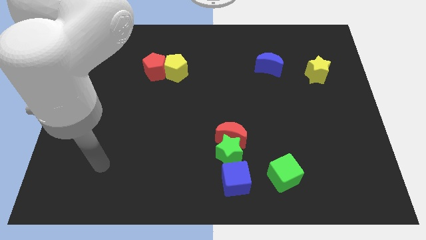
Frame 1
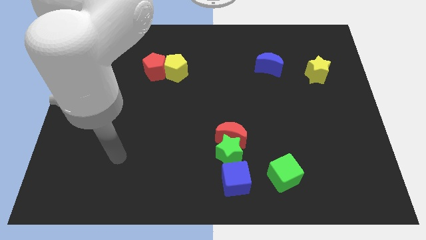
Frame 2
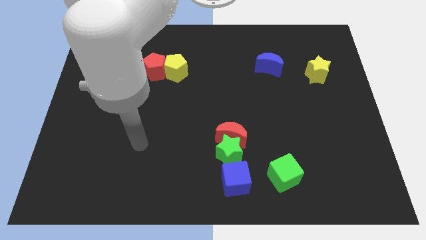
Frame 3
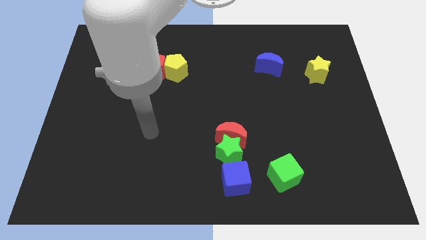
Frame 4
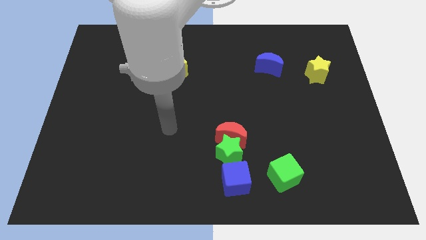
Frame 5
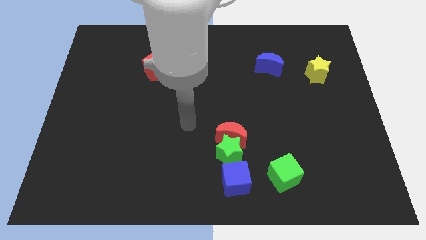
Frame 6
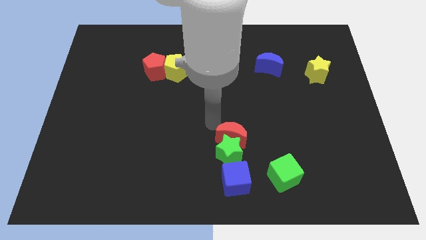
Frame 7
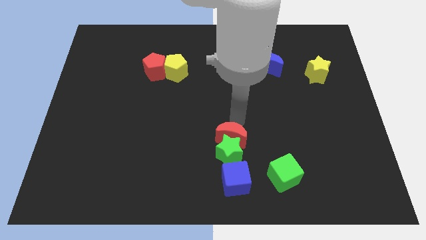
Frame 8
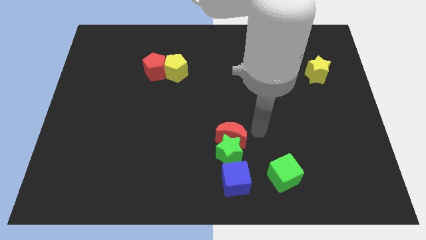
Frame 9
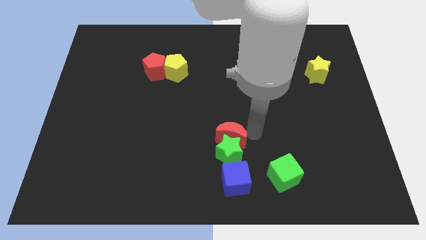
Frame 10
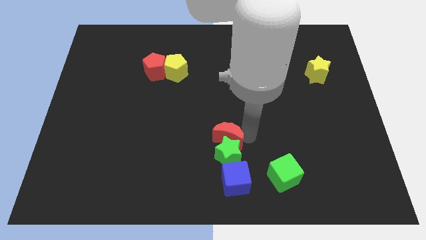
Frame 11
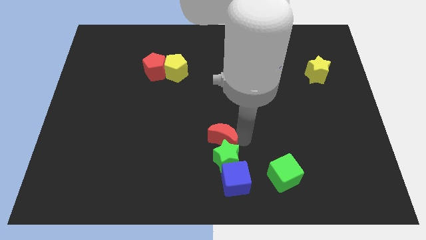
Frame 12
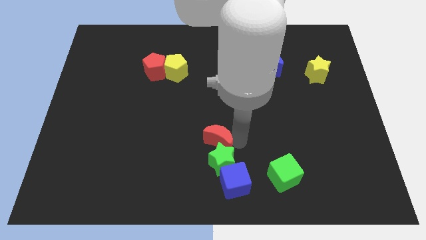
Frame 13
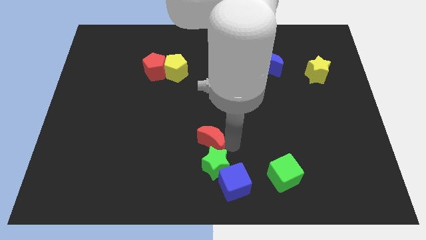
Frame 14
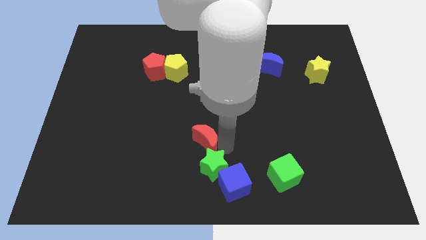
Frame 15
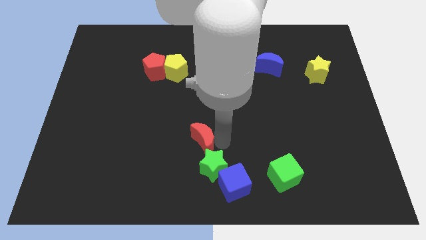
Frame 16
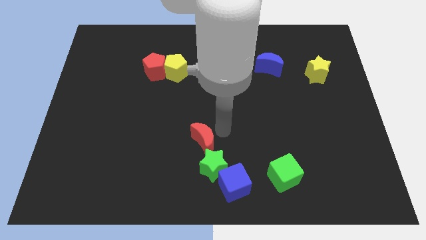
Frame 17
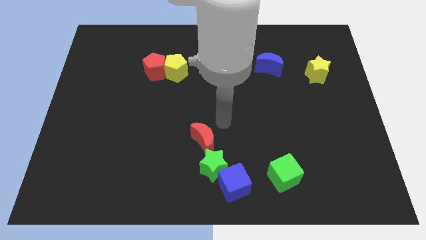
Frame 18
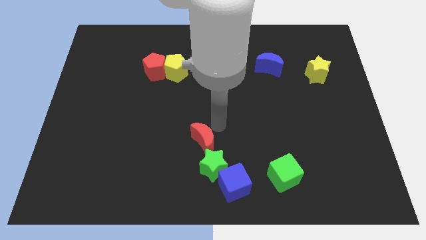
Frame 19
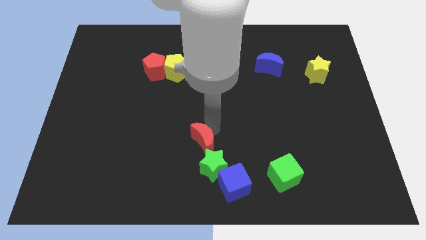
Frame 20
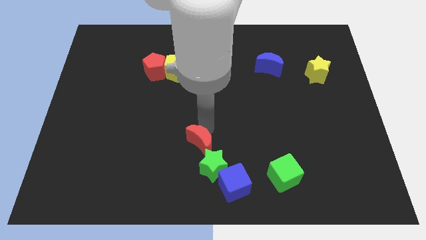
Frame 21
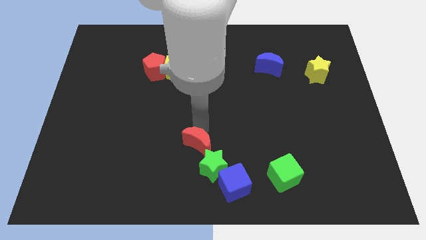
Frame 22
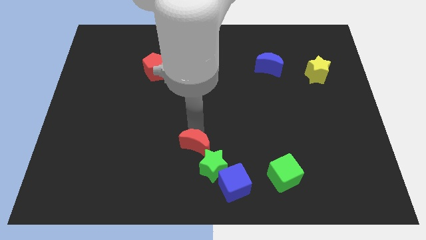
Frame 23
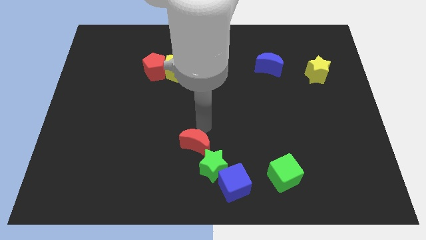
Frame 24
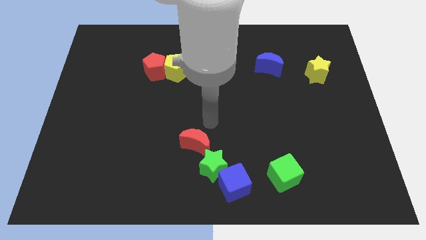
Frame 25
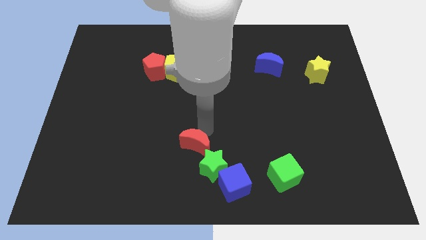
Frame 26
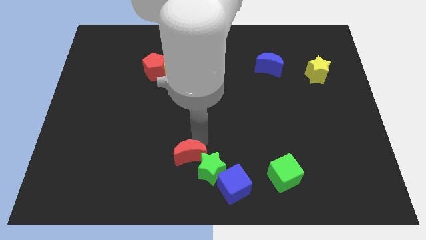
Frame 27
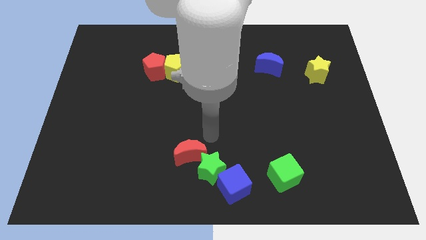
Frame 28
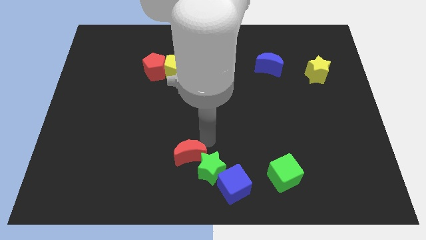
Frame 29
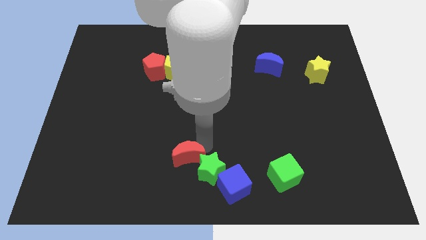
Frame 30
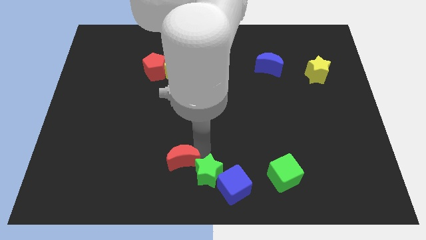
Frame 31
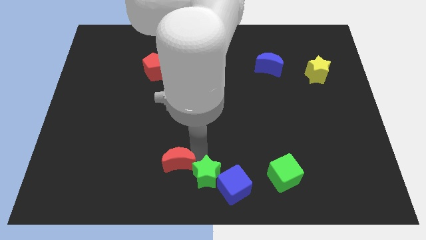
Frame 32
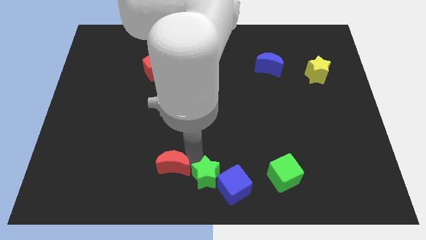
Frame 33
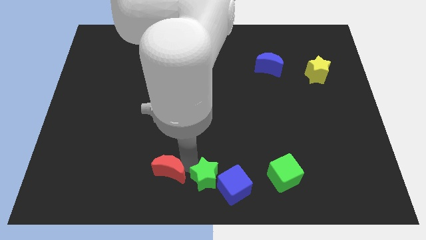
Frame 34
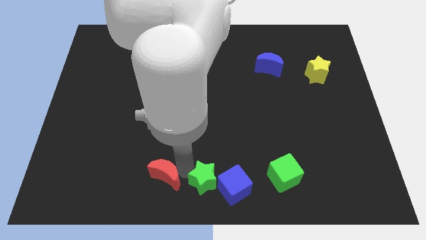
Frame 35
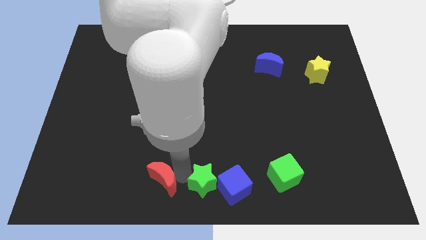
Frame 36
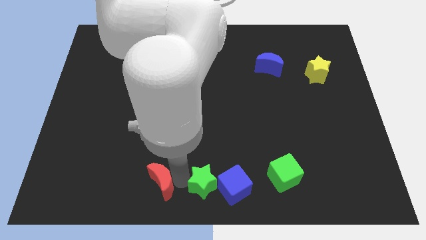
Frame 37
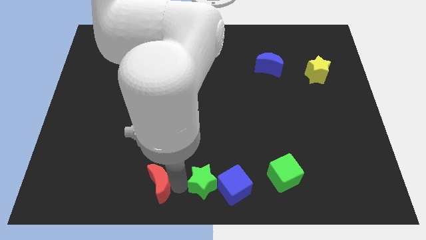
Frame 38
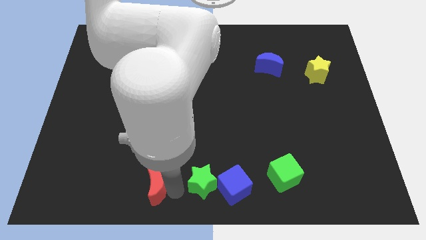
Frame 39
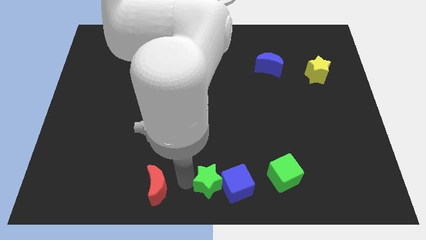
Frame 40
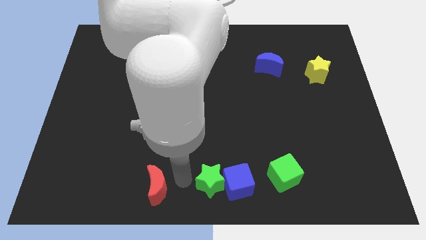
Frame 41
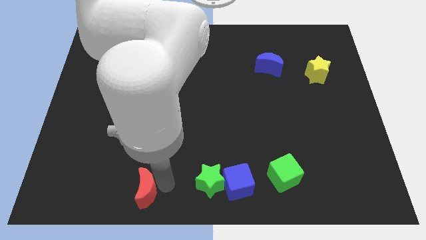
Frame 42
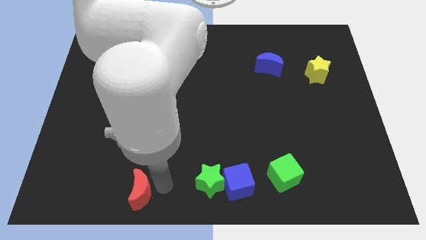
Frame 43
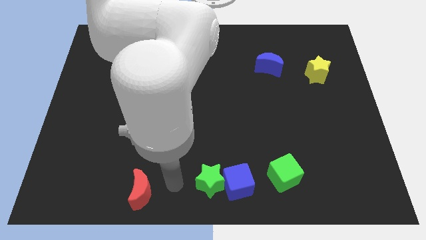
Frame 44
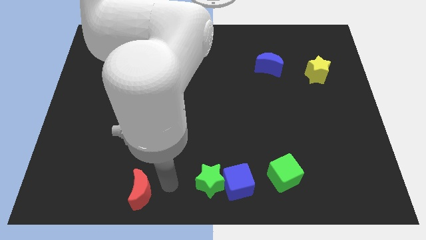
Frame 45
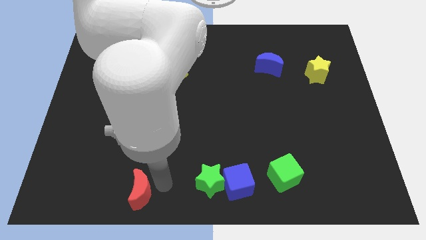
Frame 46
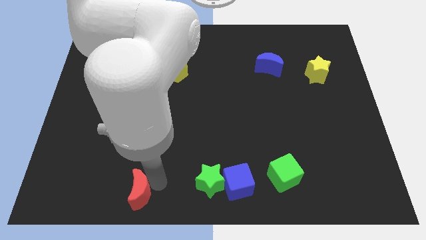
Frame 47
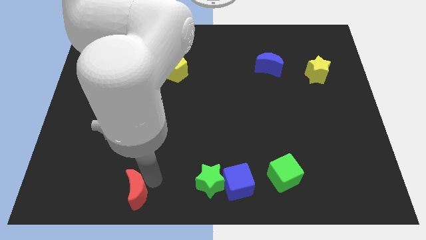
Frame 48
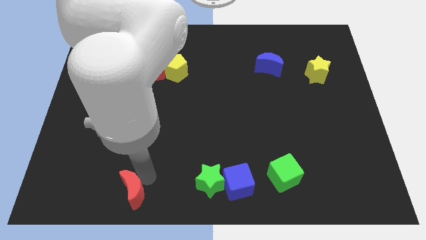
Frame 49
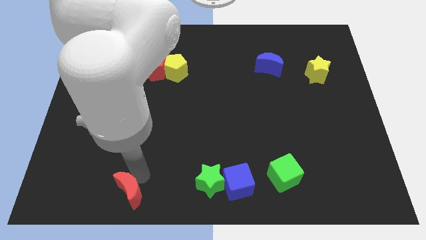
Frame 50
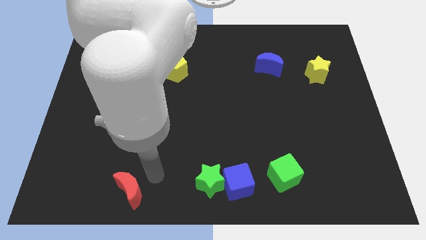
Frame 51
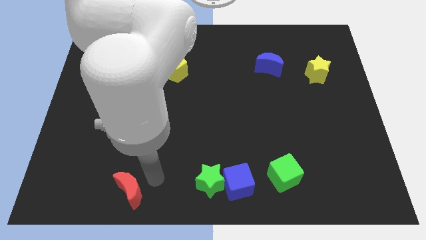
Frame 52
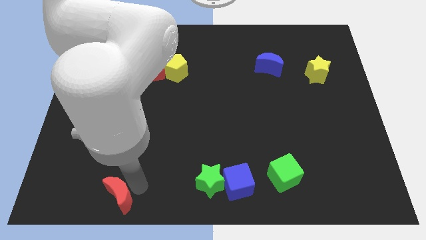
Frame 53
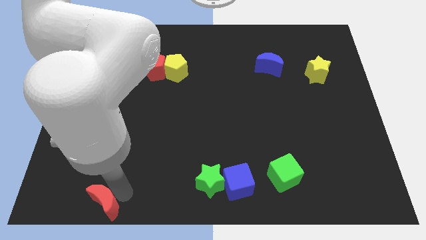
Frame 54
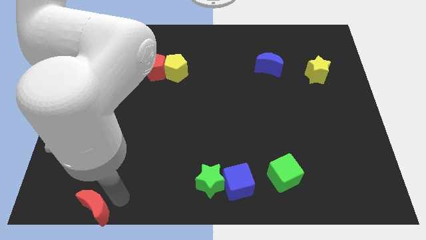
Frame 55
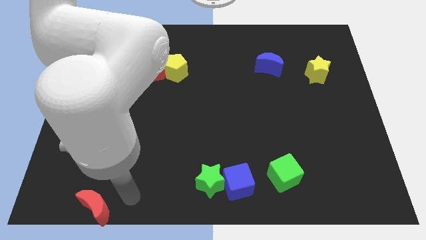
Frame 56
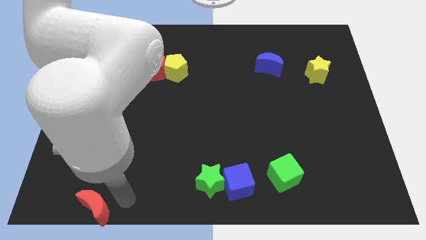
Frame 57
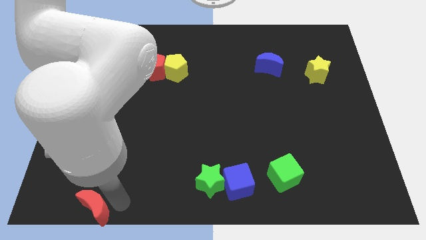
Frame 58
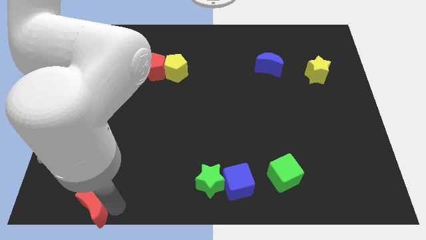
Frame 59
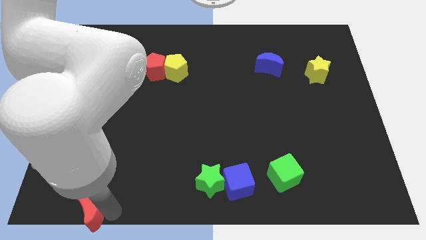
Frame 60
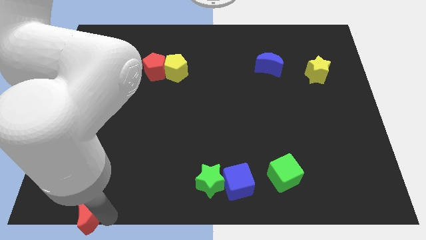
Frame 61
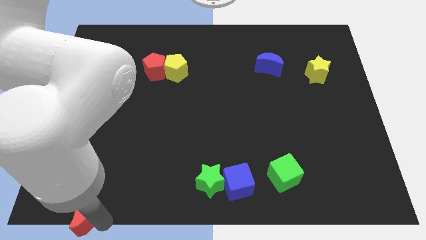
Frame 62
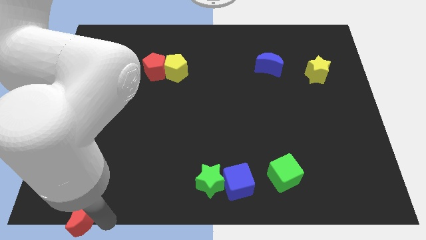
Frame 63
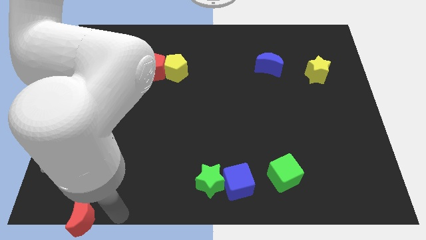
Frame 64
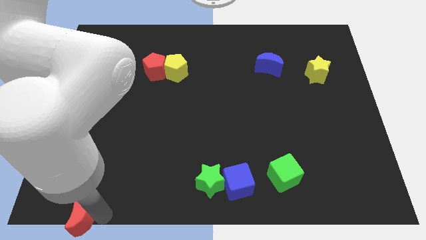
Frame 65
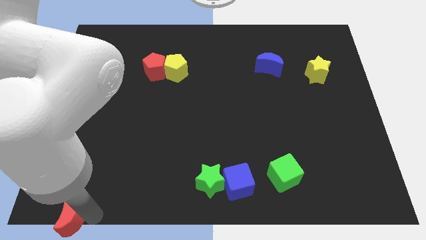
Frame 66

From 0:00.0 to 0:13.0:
slide the red moon to the bottom left of the board
